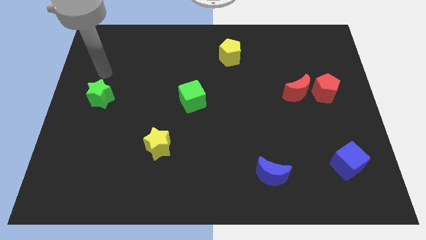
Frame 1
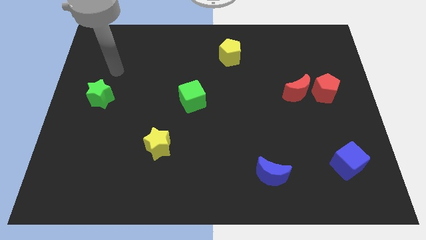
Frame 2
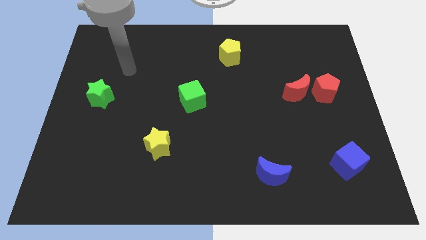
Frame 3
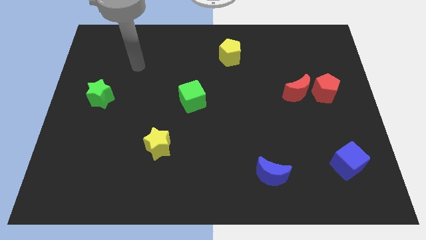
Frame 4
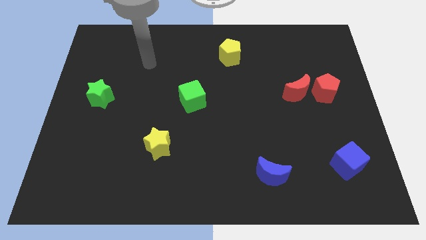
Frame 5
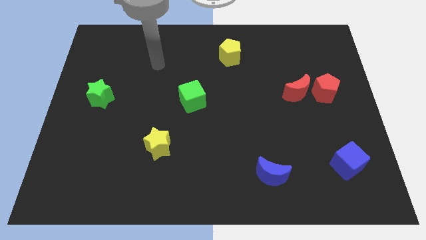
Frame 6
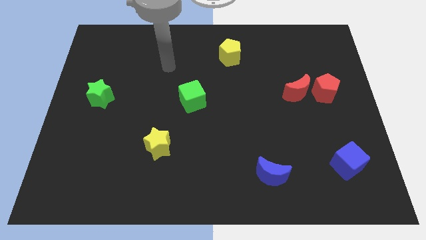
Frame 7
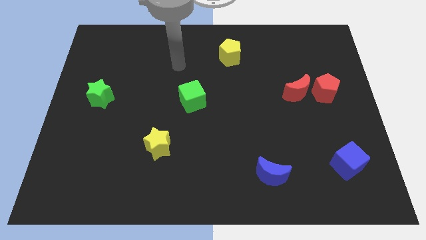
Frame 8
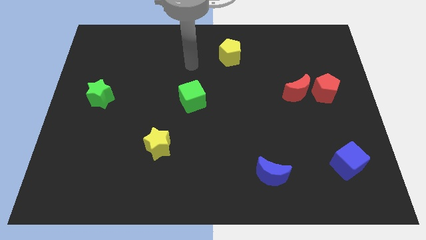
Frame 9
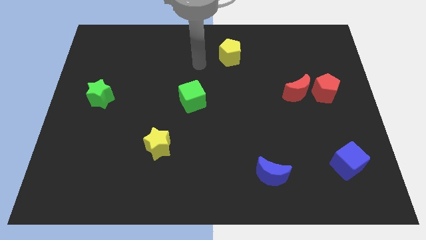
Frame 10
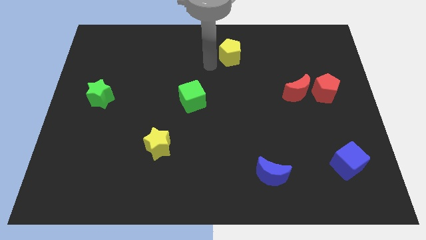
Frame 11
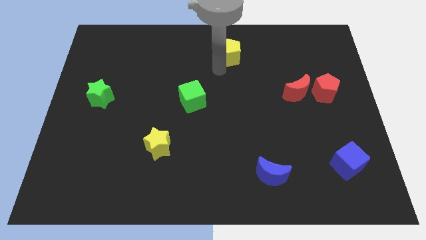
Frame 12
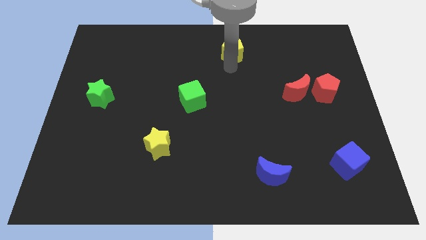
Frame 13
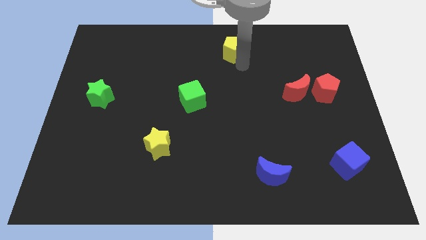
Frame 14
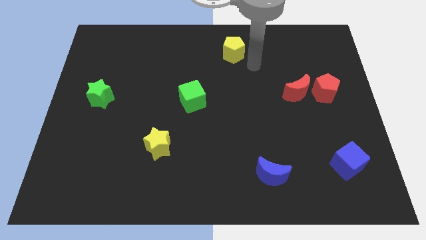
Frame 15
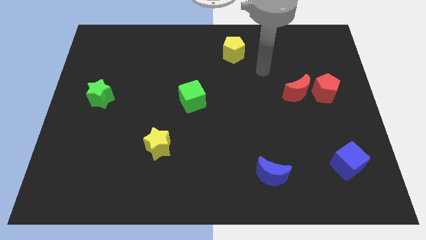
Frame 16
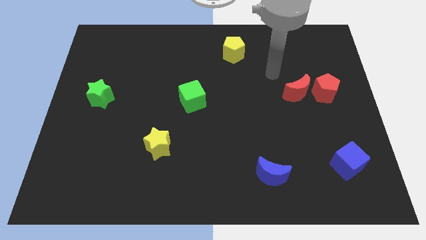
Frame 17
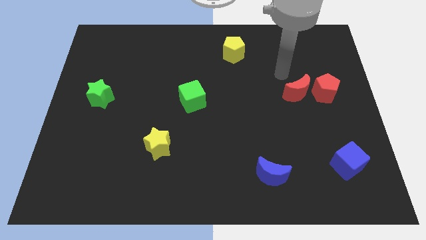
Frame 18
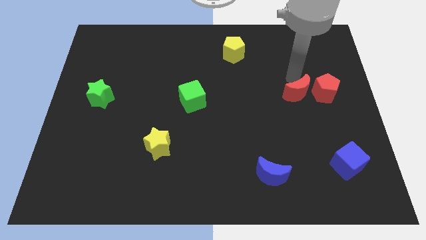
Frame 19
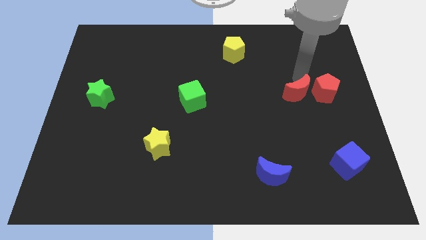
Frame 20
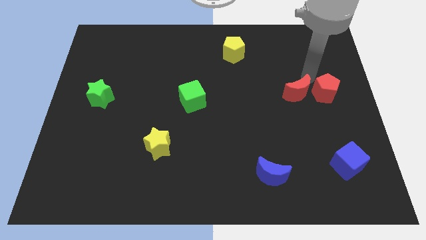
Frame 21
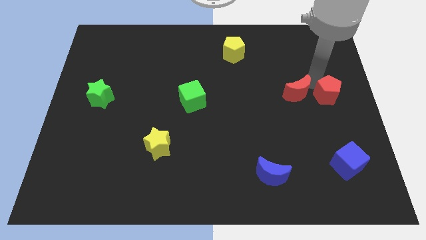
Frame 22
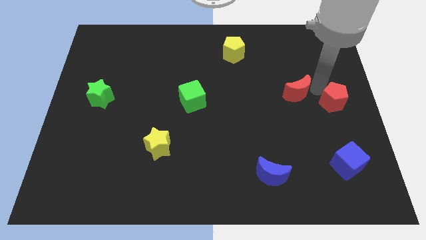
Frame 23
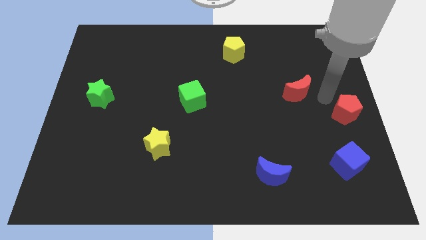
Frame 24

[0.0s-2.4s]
separate the red moon from the red pentagon

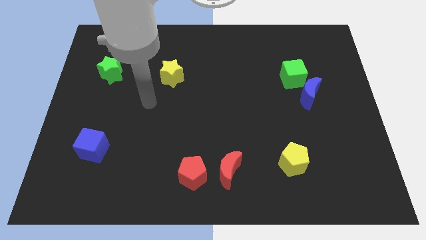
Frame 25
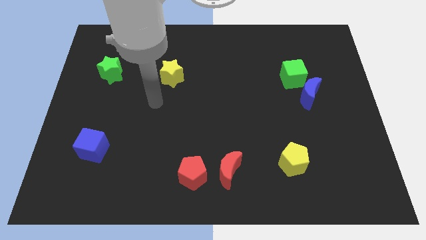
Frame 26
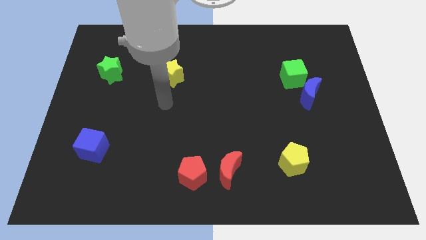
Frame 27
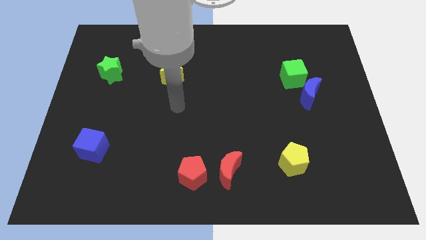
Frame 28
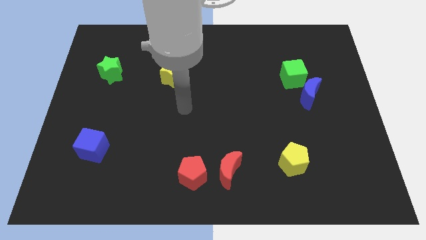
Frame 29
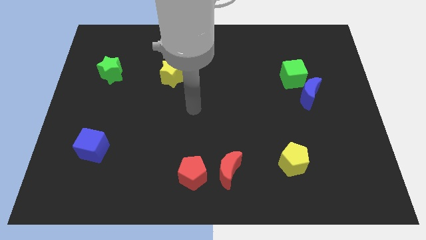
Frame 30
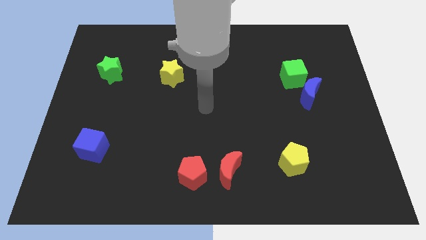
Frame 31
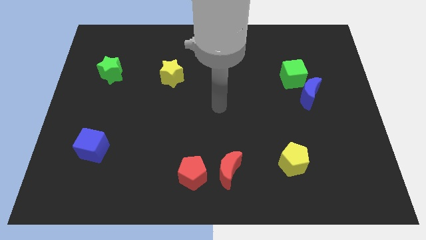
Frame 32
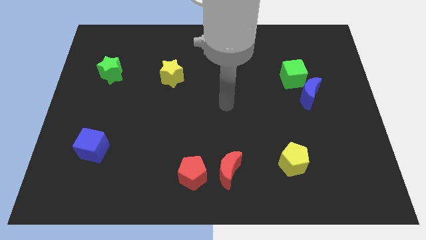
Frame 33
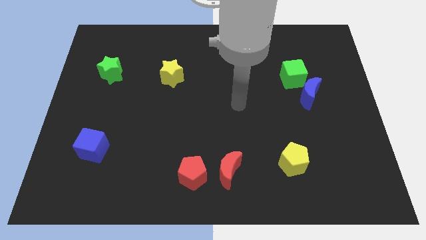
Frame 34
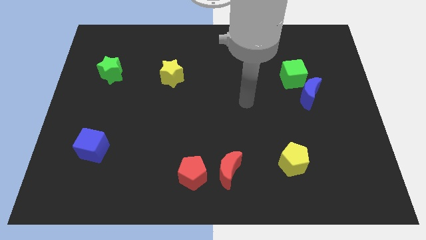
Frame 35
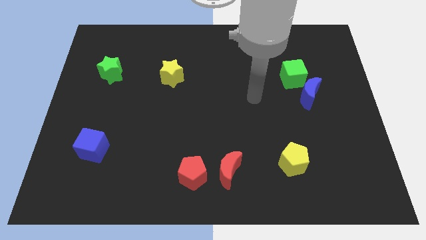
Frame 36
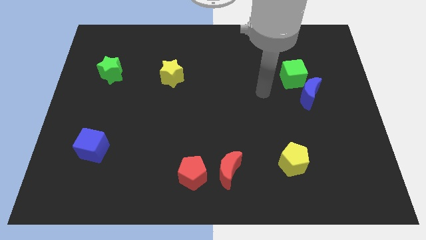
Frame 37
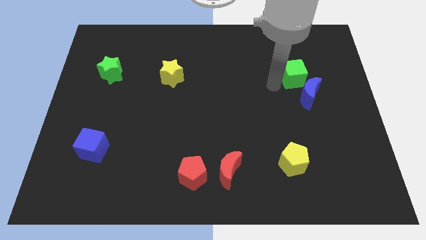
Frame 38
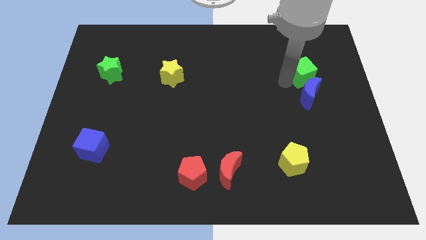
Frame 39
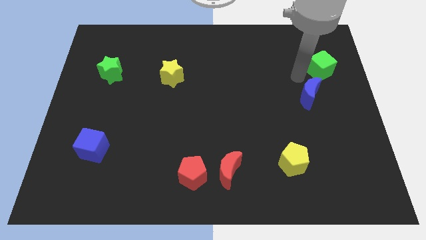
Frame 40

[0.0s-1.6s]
move the blue moon away from the green cube

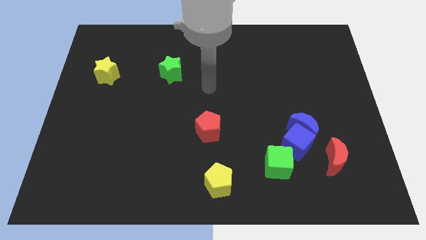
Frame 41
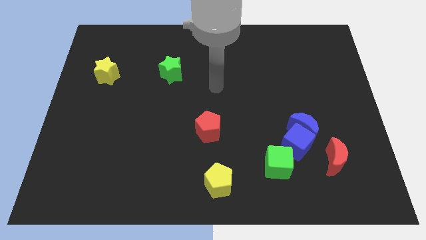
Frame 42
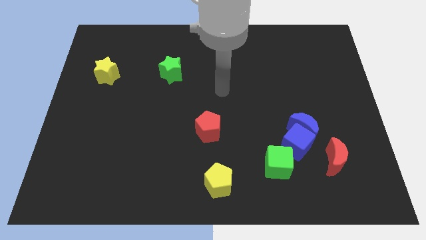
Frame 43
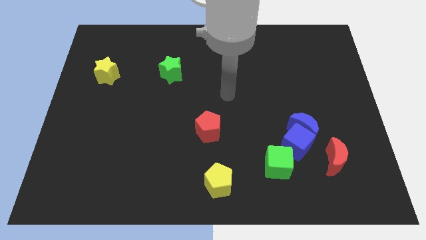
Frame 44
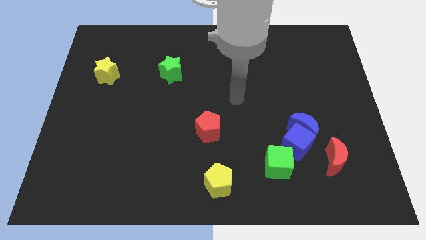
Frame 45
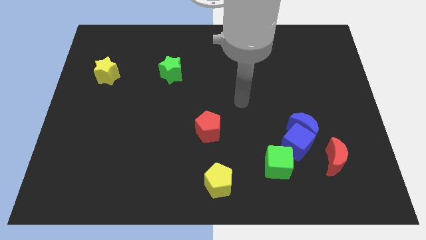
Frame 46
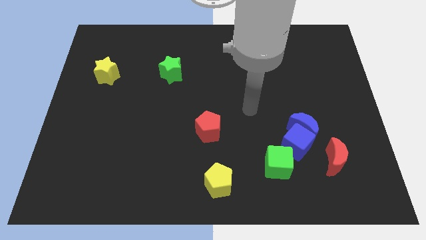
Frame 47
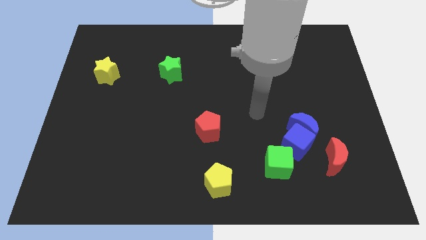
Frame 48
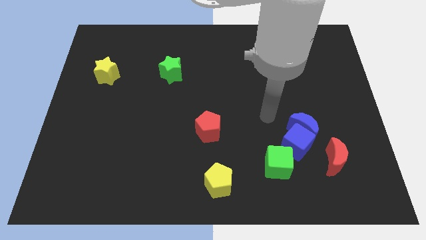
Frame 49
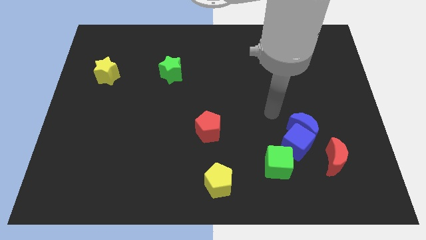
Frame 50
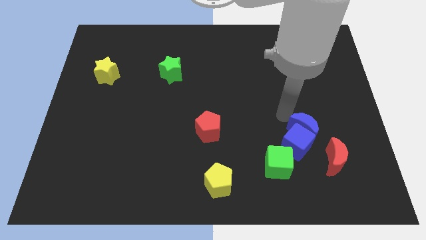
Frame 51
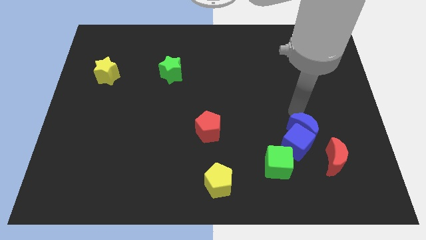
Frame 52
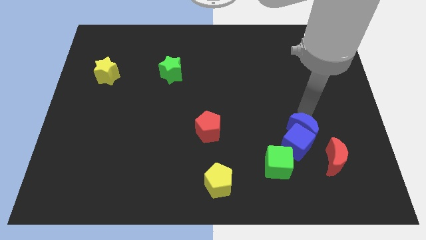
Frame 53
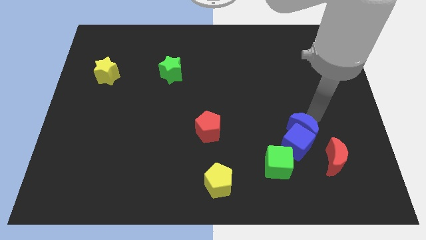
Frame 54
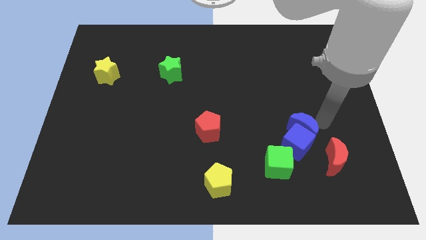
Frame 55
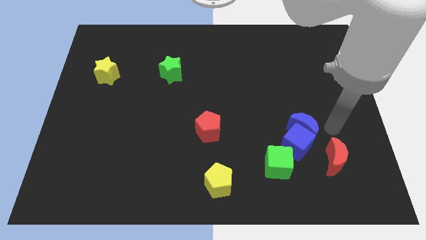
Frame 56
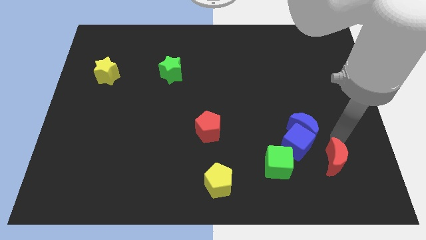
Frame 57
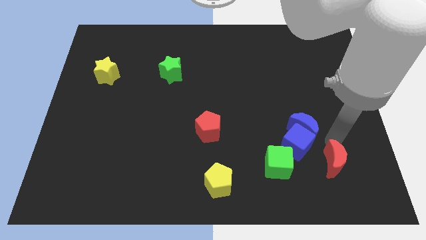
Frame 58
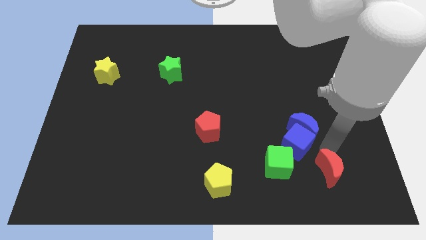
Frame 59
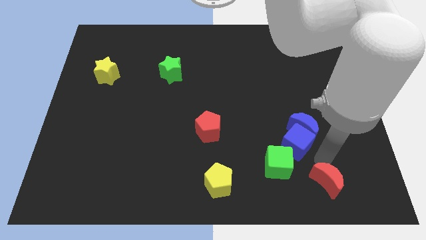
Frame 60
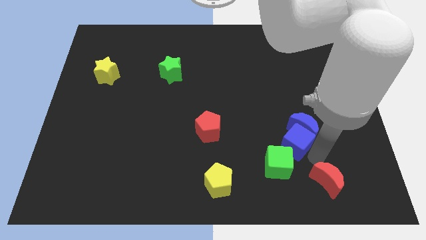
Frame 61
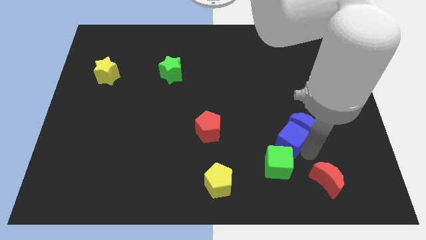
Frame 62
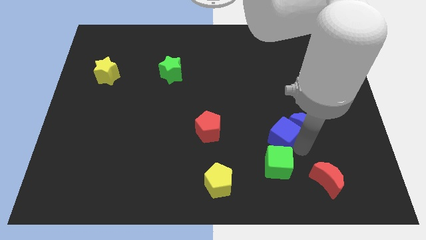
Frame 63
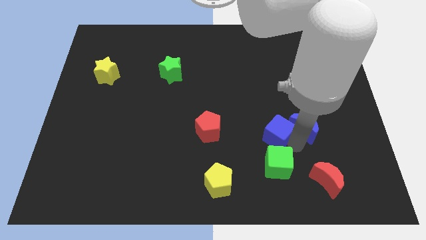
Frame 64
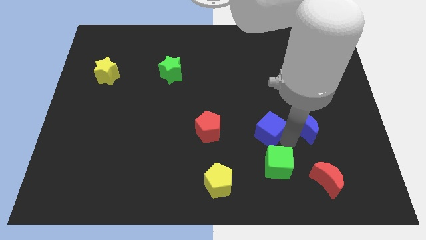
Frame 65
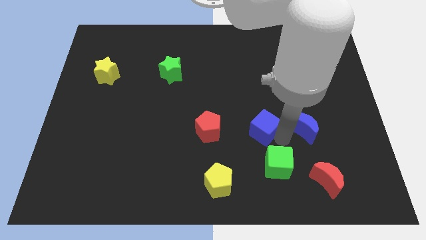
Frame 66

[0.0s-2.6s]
move the blue cube away from the blue moon, green cube, and red moon

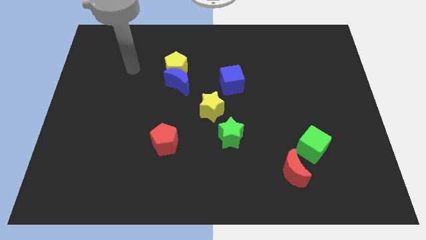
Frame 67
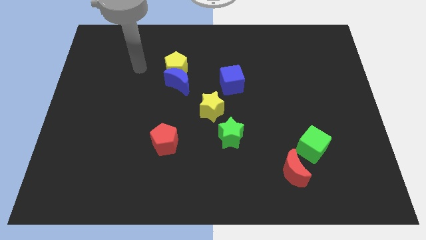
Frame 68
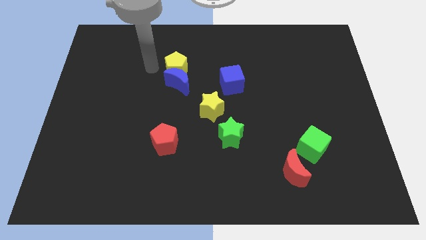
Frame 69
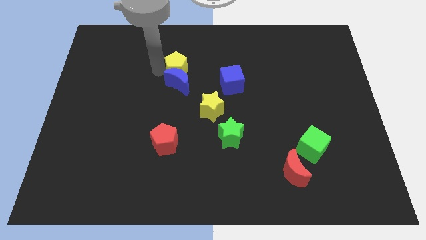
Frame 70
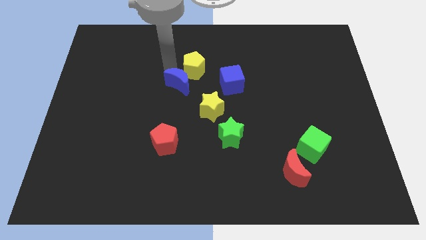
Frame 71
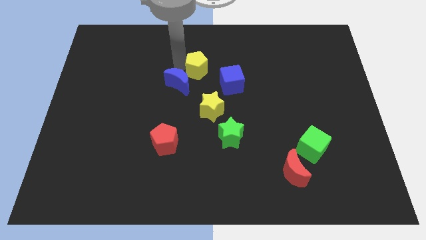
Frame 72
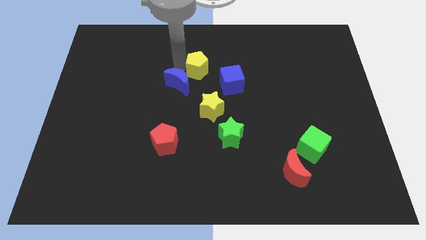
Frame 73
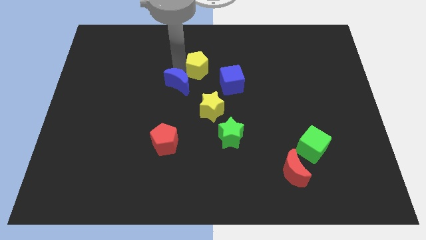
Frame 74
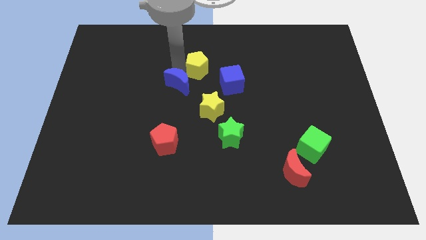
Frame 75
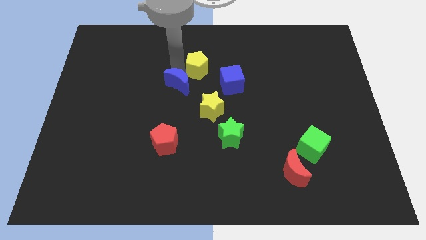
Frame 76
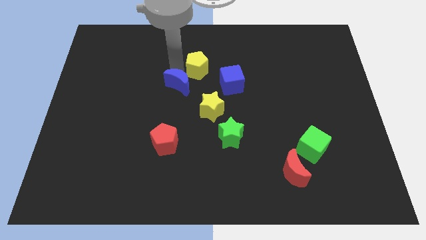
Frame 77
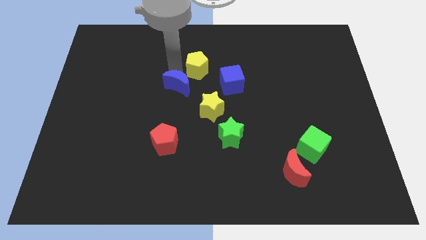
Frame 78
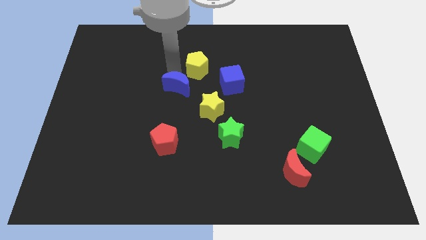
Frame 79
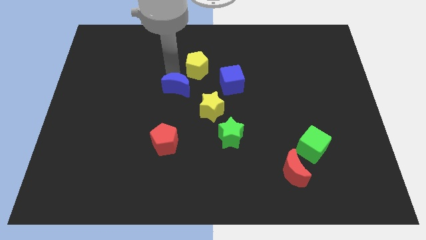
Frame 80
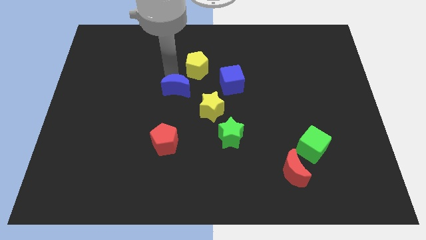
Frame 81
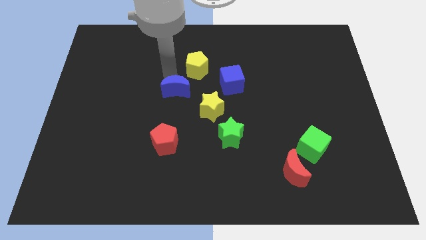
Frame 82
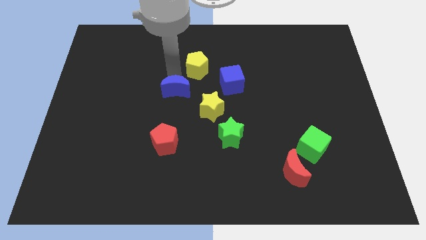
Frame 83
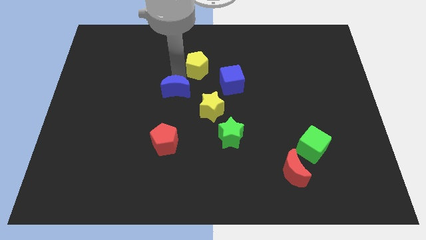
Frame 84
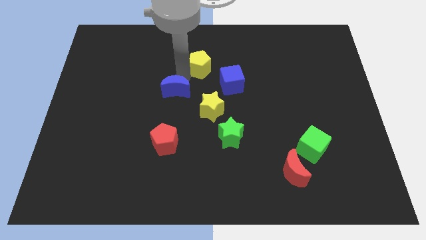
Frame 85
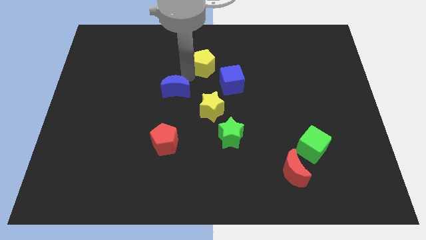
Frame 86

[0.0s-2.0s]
separate the blue moon from the yellow pentagon

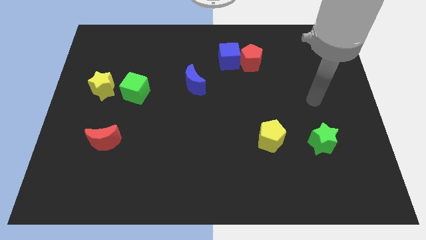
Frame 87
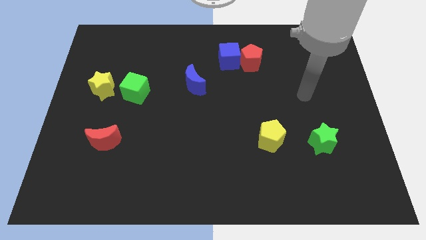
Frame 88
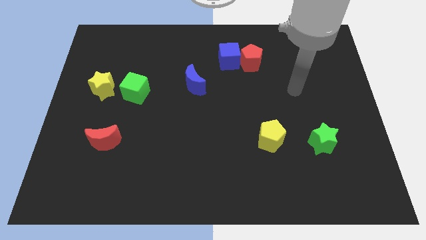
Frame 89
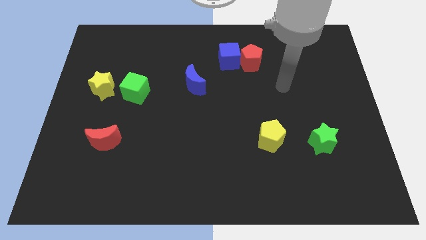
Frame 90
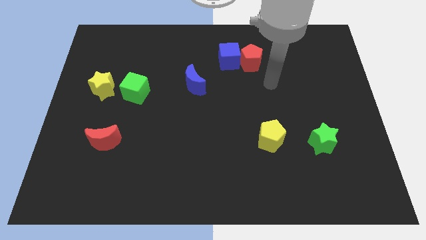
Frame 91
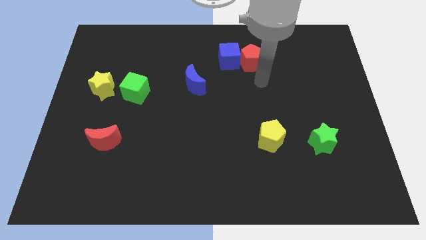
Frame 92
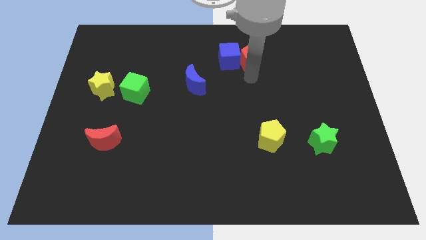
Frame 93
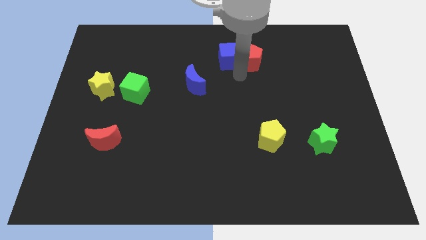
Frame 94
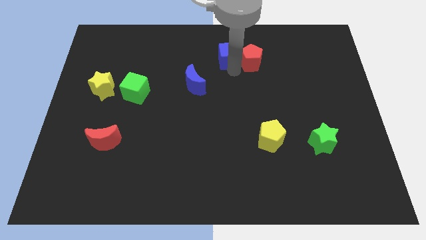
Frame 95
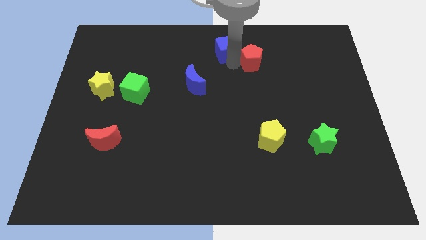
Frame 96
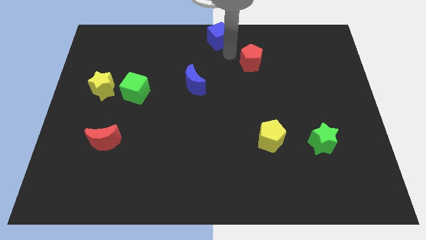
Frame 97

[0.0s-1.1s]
pull the red pentagon apart from the blue cube
